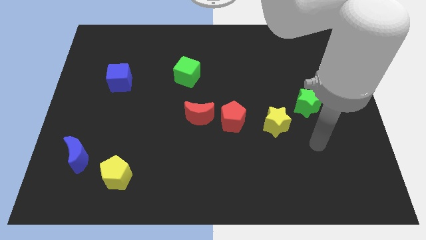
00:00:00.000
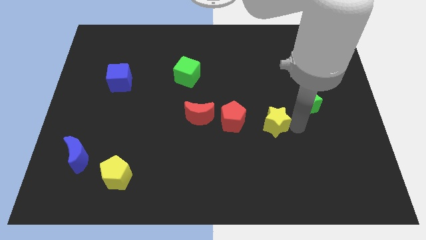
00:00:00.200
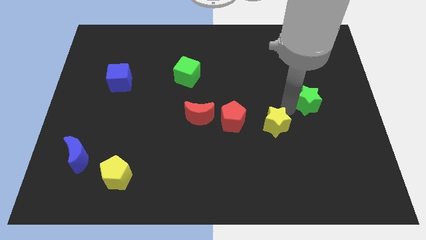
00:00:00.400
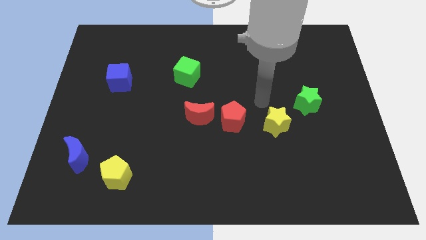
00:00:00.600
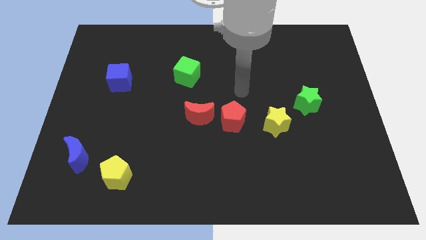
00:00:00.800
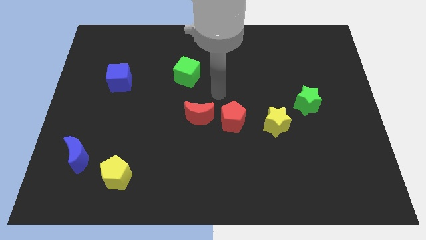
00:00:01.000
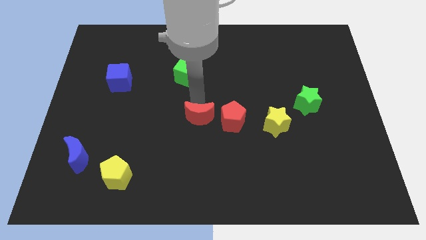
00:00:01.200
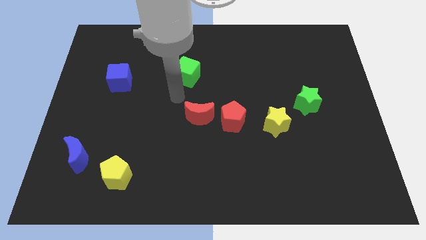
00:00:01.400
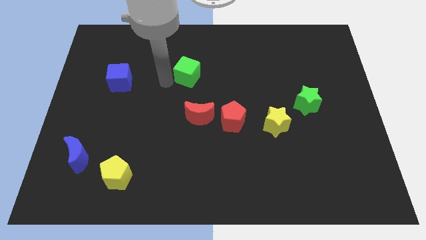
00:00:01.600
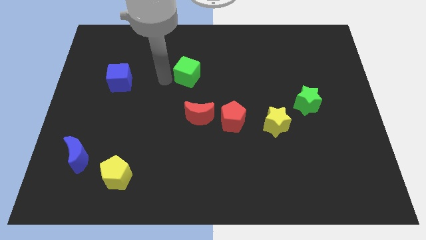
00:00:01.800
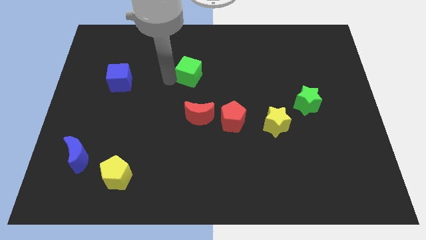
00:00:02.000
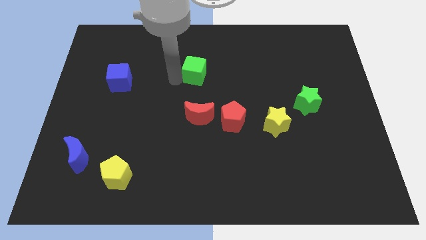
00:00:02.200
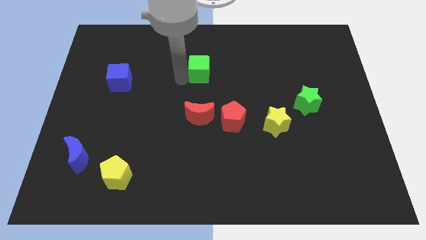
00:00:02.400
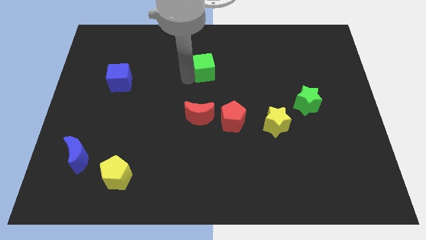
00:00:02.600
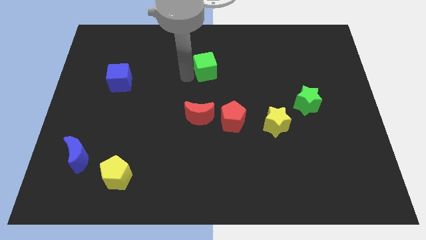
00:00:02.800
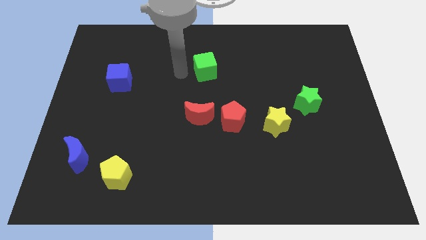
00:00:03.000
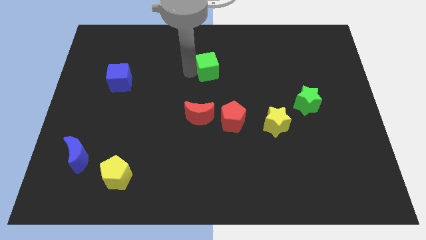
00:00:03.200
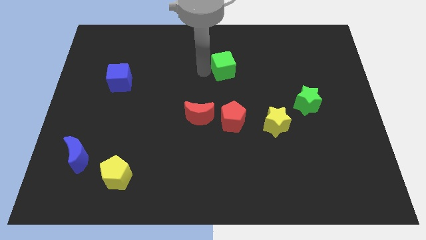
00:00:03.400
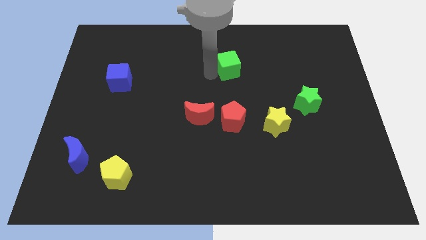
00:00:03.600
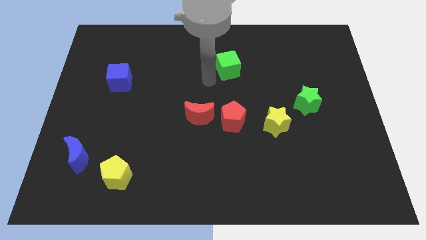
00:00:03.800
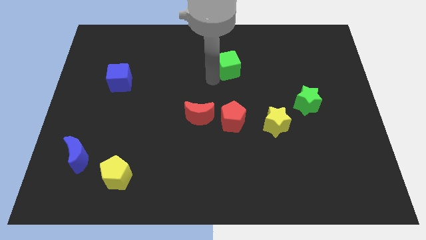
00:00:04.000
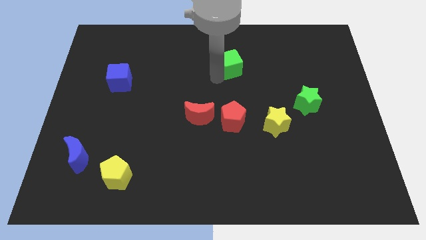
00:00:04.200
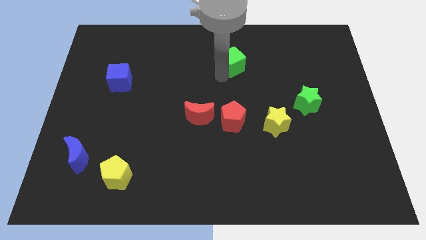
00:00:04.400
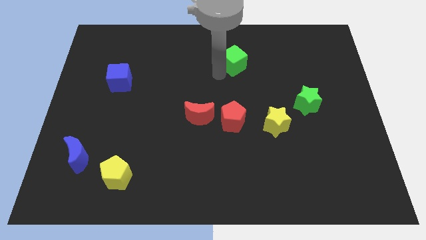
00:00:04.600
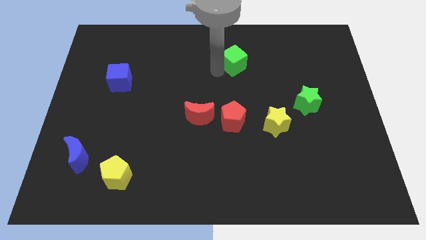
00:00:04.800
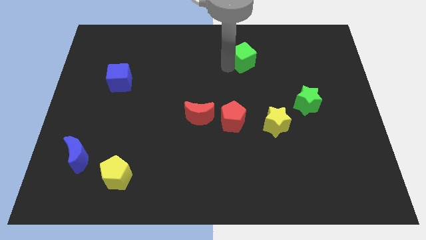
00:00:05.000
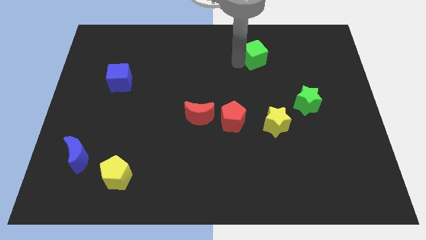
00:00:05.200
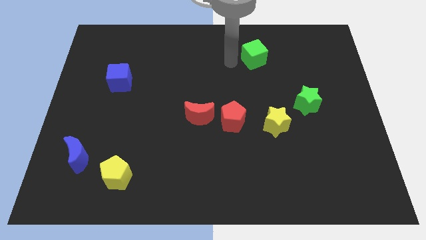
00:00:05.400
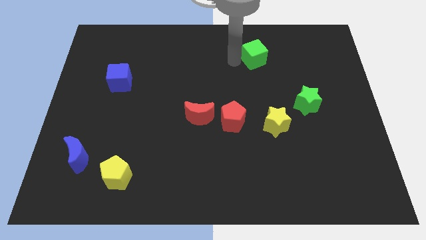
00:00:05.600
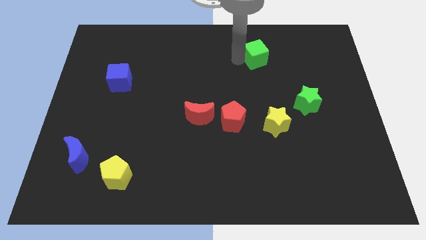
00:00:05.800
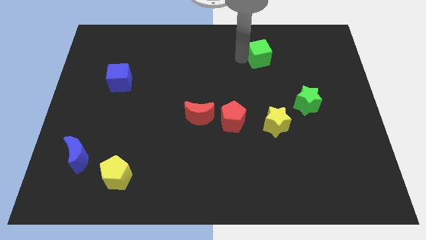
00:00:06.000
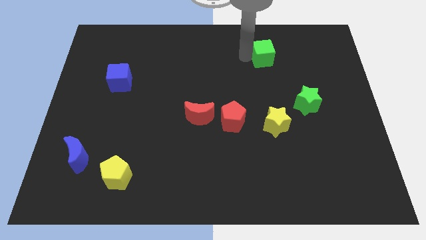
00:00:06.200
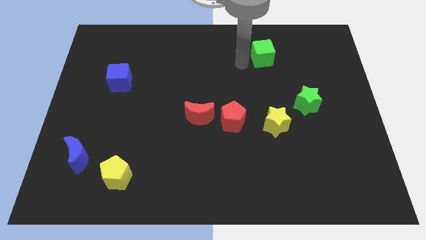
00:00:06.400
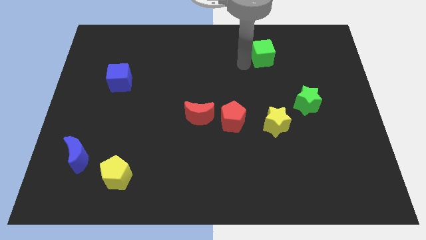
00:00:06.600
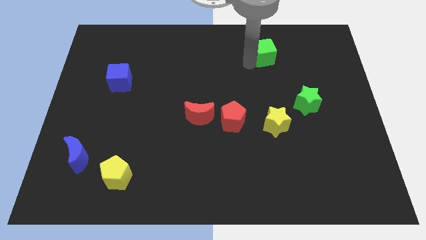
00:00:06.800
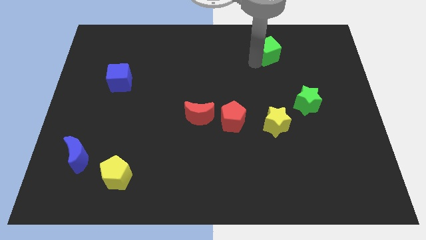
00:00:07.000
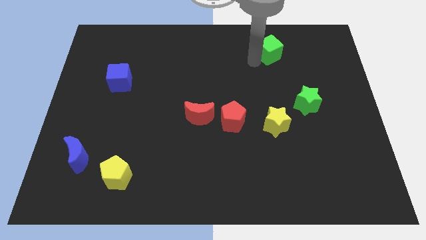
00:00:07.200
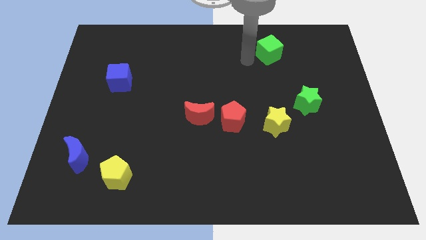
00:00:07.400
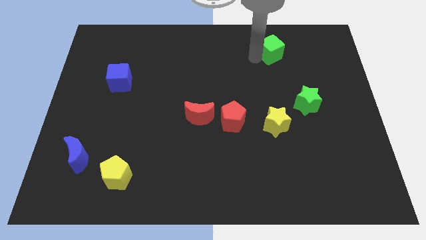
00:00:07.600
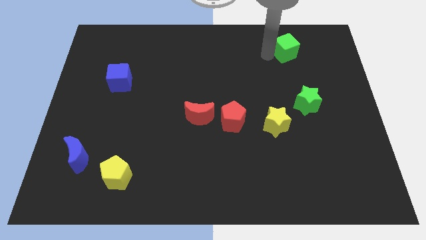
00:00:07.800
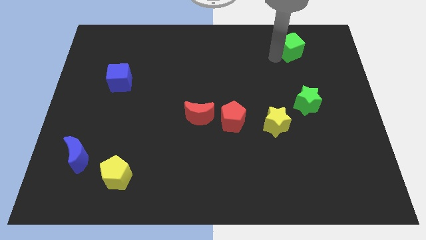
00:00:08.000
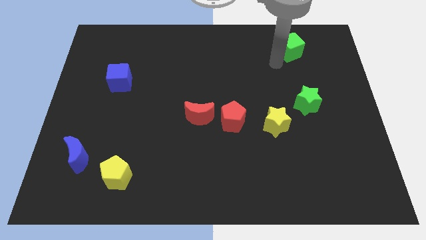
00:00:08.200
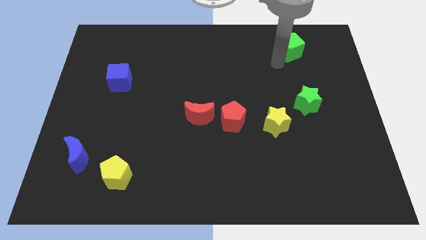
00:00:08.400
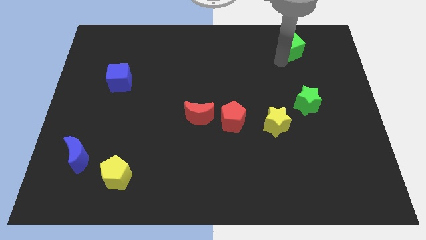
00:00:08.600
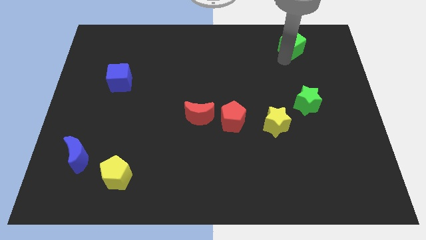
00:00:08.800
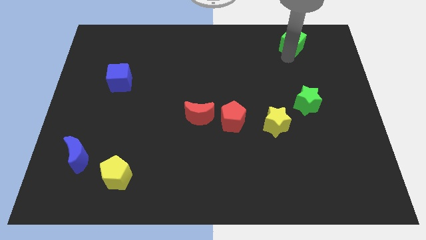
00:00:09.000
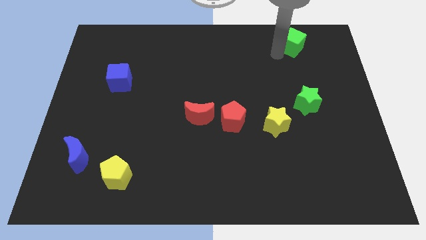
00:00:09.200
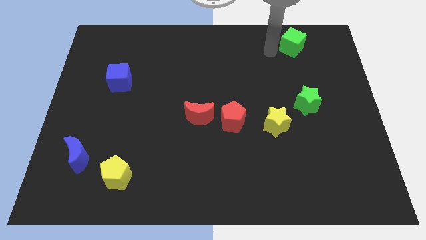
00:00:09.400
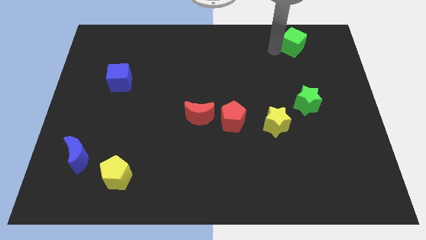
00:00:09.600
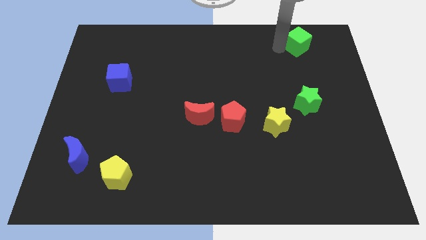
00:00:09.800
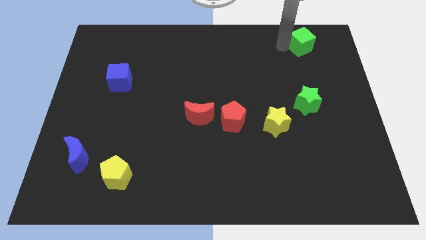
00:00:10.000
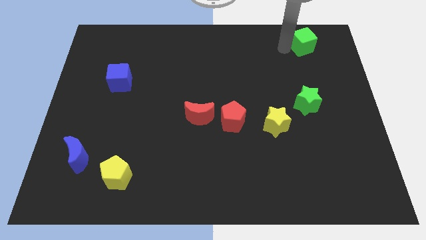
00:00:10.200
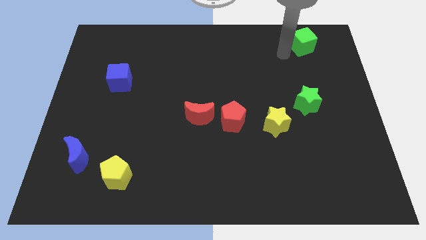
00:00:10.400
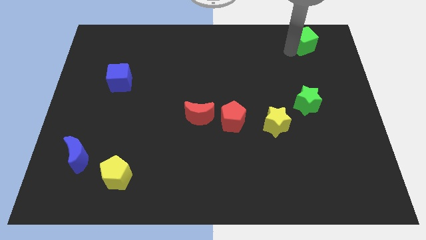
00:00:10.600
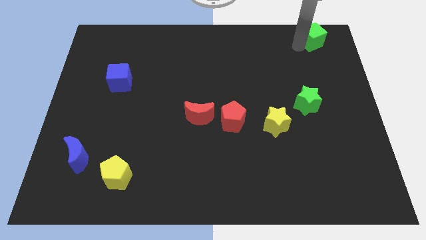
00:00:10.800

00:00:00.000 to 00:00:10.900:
push the green cube to the upper right corner
